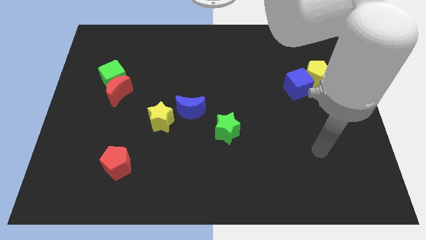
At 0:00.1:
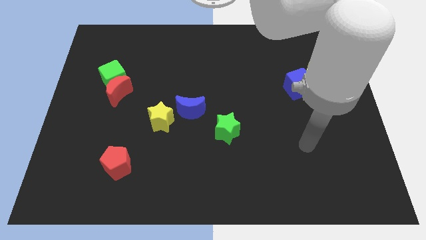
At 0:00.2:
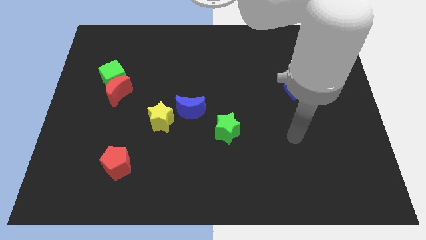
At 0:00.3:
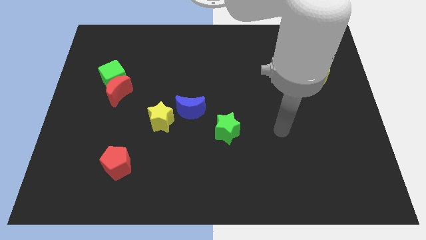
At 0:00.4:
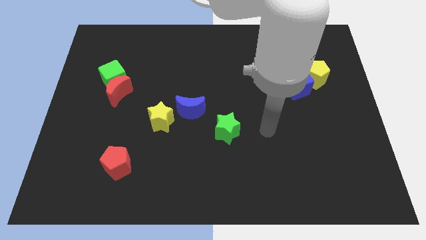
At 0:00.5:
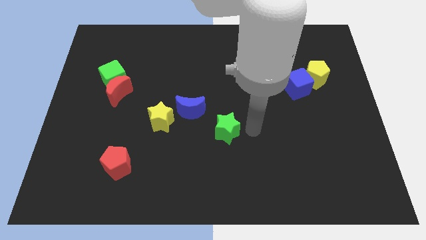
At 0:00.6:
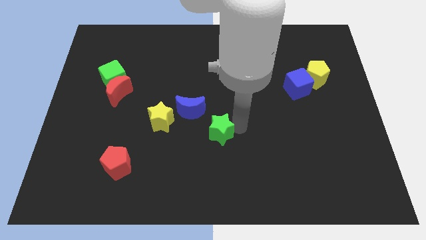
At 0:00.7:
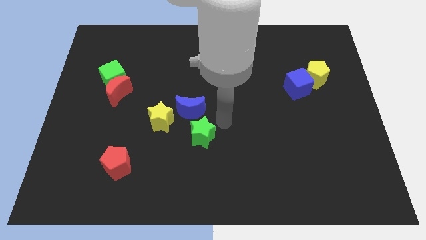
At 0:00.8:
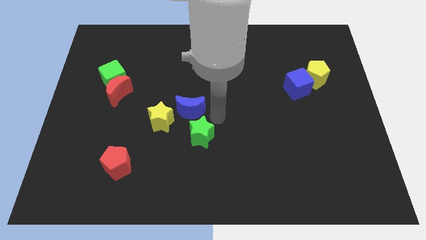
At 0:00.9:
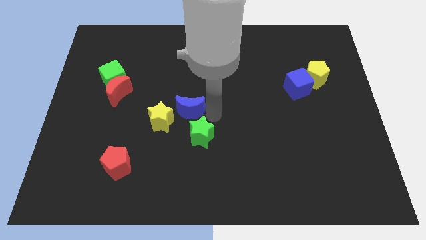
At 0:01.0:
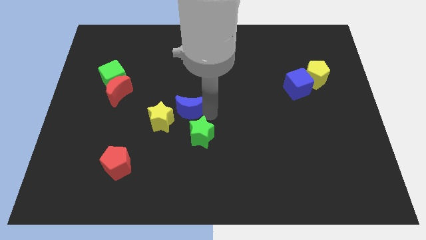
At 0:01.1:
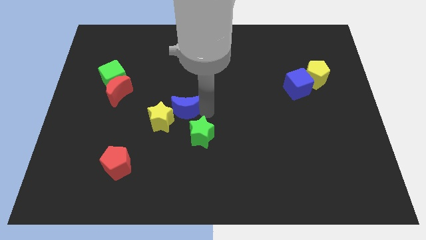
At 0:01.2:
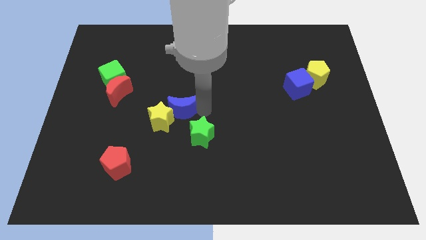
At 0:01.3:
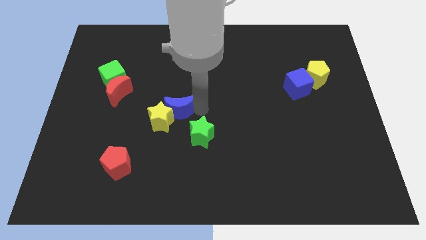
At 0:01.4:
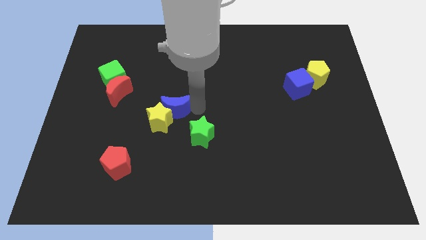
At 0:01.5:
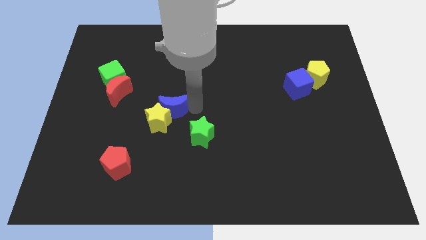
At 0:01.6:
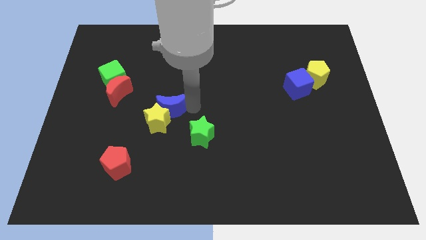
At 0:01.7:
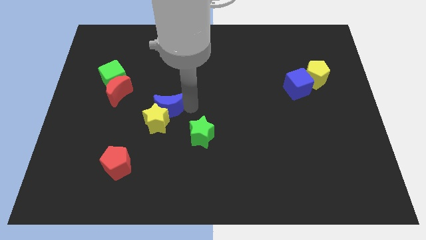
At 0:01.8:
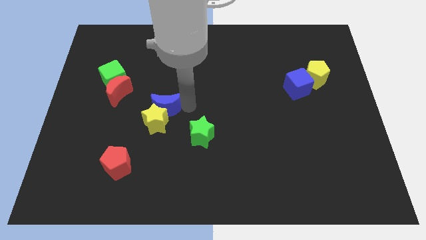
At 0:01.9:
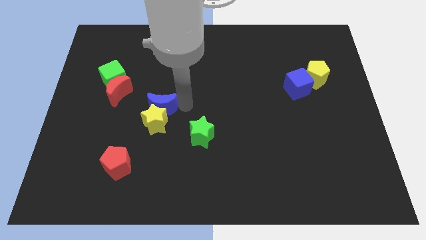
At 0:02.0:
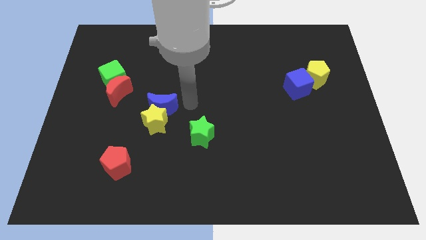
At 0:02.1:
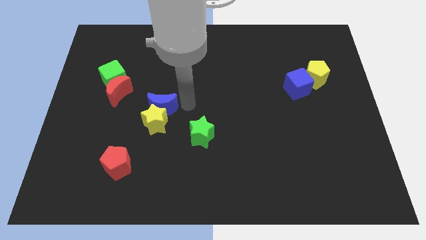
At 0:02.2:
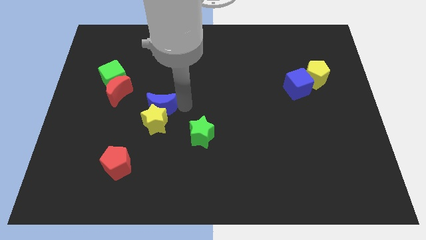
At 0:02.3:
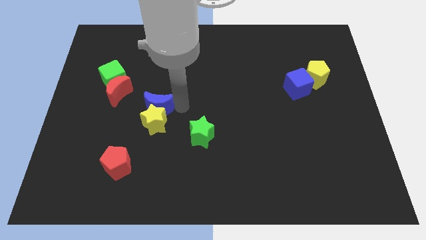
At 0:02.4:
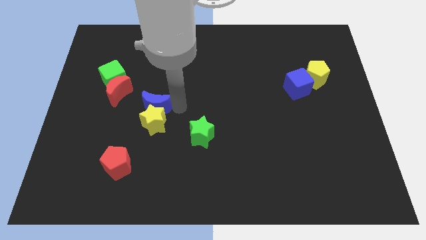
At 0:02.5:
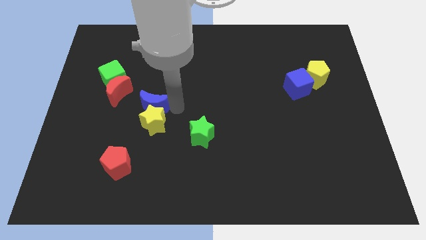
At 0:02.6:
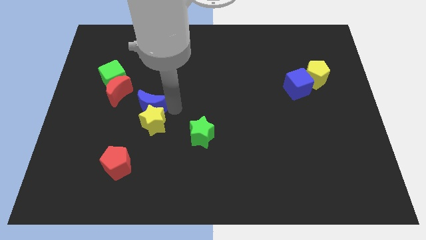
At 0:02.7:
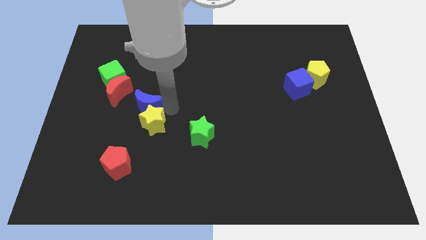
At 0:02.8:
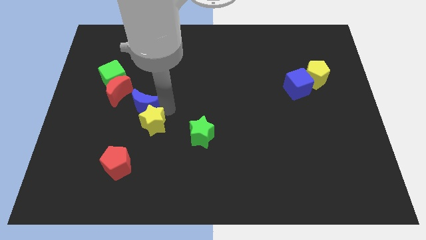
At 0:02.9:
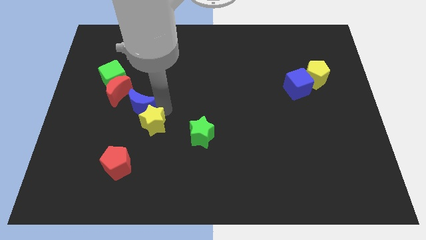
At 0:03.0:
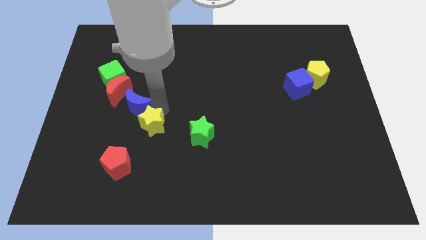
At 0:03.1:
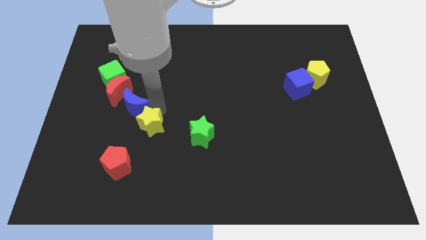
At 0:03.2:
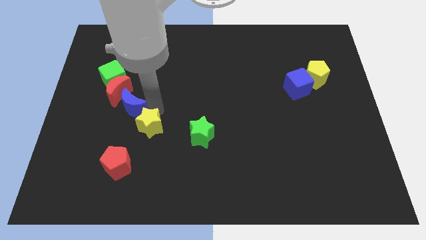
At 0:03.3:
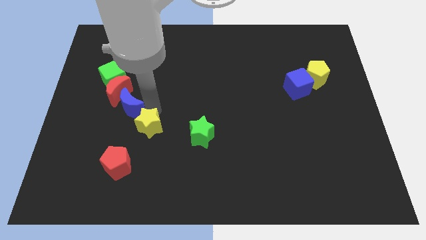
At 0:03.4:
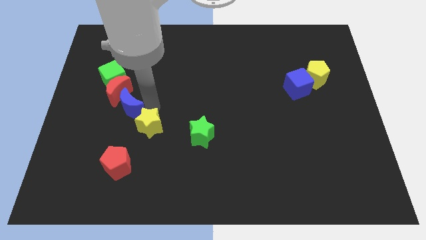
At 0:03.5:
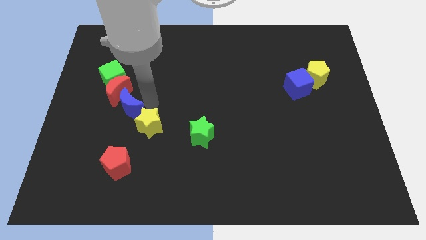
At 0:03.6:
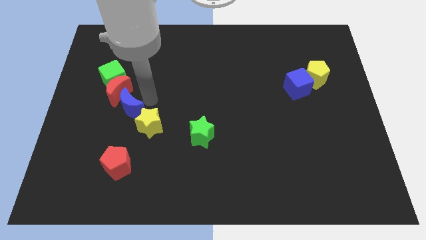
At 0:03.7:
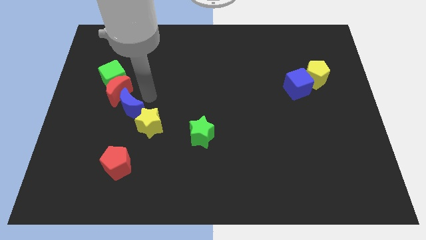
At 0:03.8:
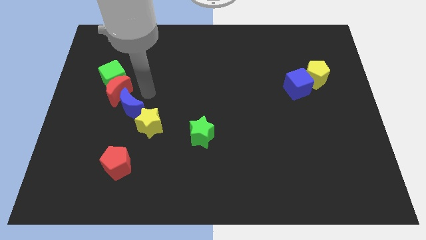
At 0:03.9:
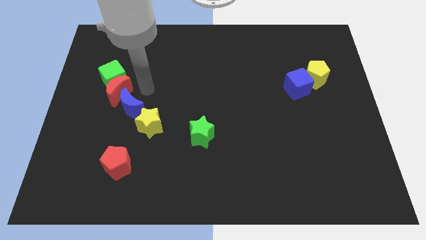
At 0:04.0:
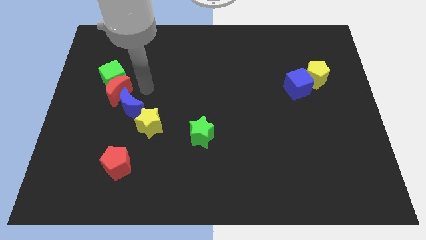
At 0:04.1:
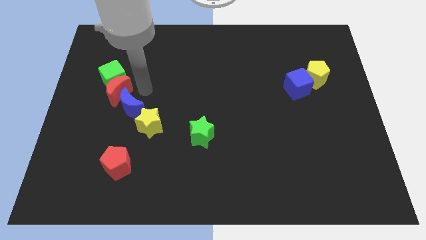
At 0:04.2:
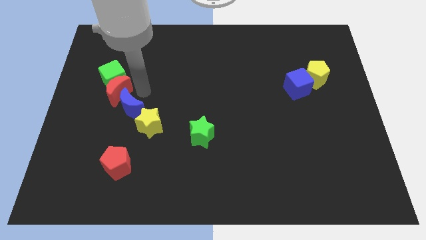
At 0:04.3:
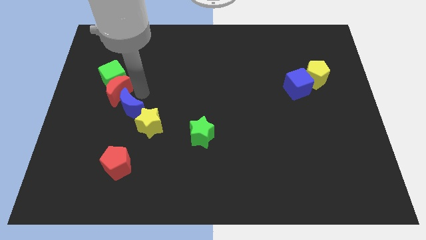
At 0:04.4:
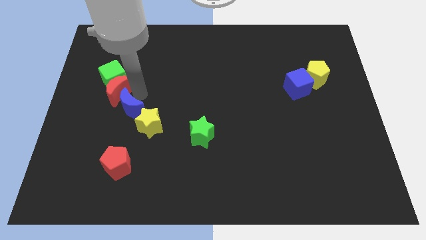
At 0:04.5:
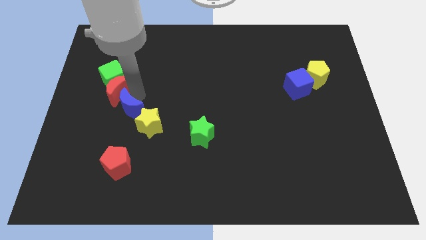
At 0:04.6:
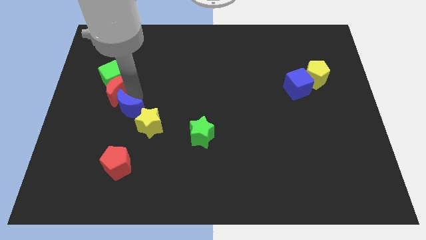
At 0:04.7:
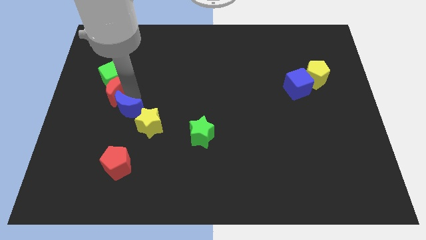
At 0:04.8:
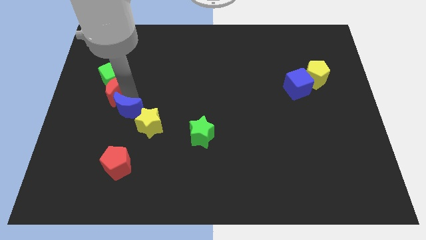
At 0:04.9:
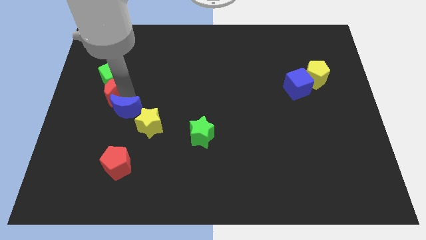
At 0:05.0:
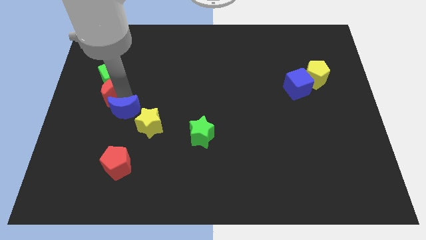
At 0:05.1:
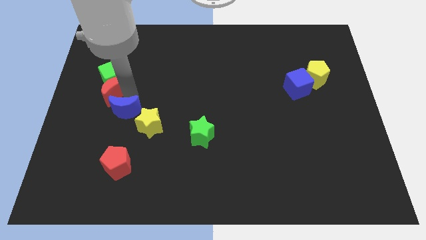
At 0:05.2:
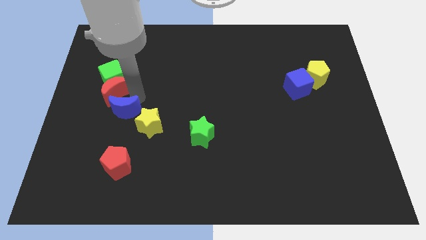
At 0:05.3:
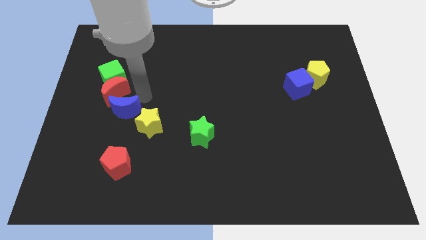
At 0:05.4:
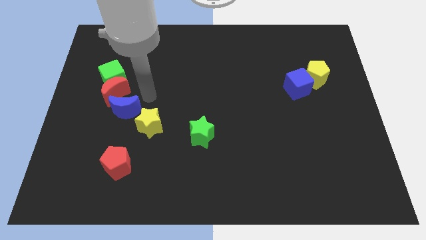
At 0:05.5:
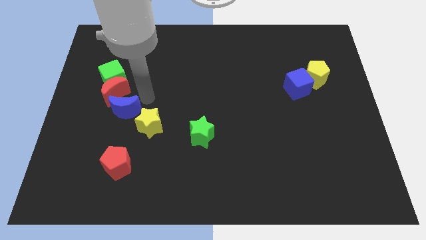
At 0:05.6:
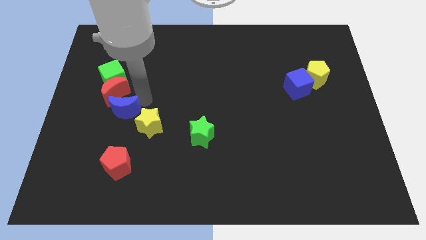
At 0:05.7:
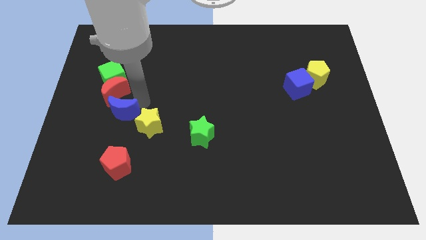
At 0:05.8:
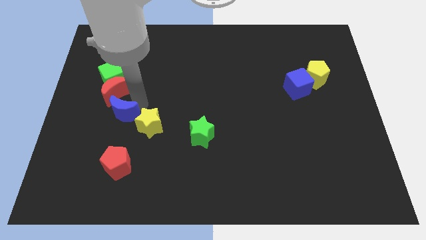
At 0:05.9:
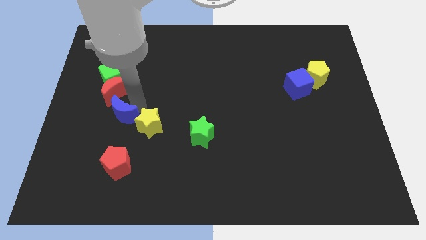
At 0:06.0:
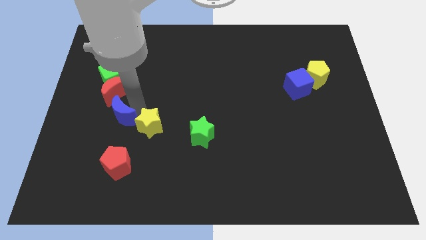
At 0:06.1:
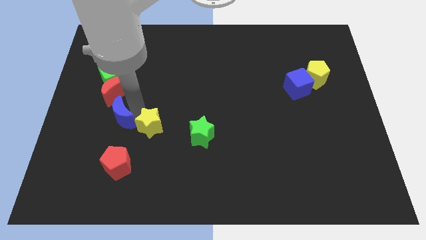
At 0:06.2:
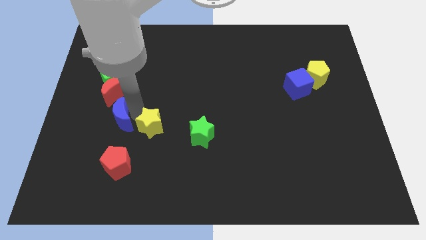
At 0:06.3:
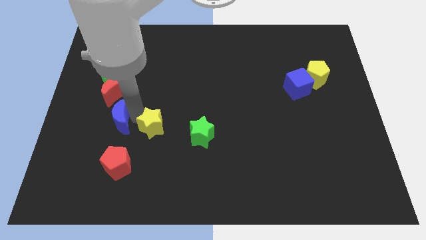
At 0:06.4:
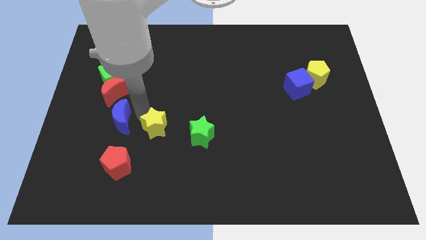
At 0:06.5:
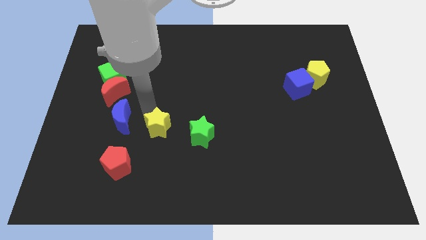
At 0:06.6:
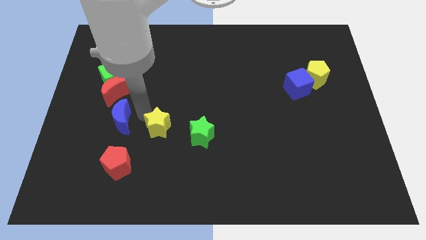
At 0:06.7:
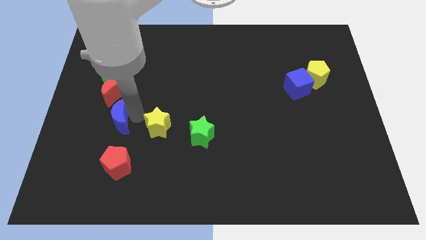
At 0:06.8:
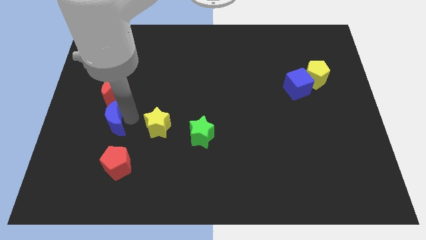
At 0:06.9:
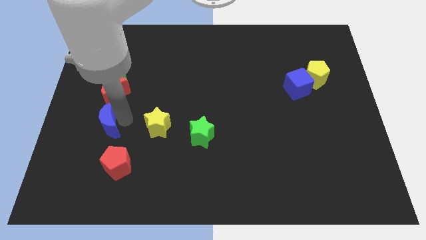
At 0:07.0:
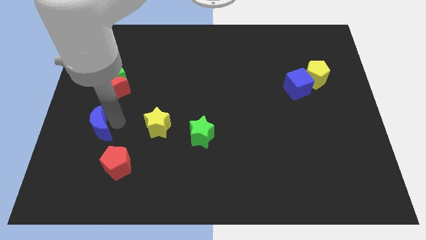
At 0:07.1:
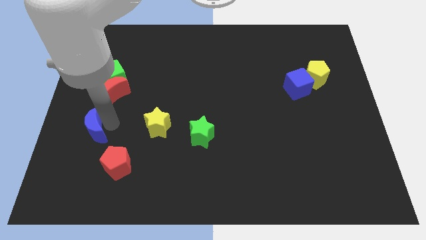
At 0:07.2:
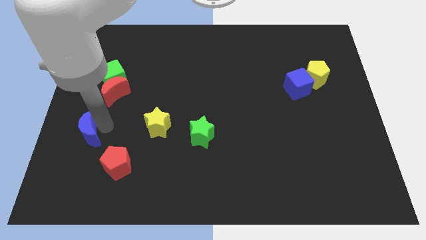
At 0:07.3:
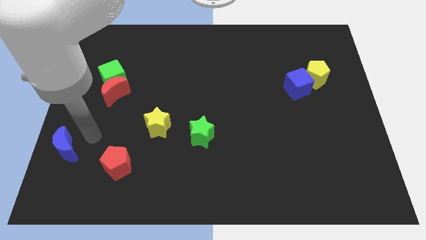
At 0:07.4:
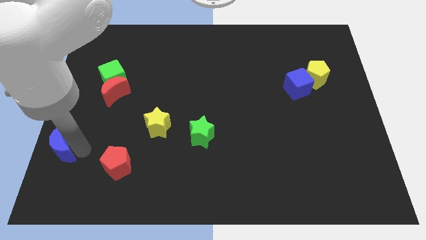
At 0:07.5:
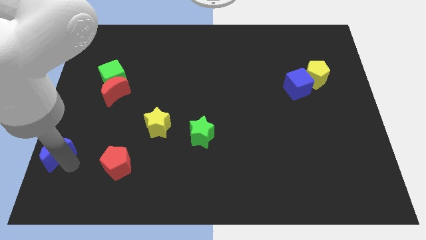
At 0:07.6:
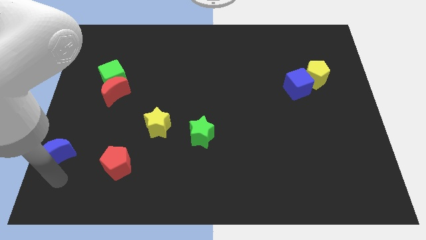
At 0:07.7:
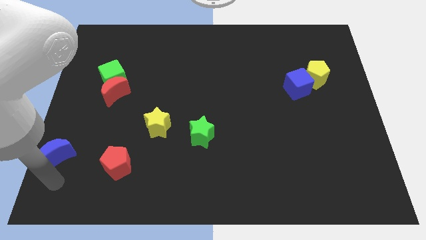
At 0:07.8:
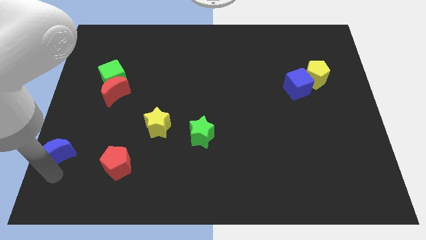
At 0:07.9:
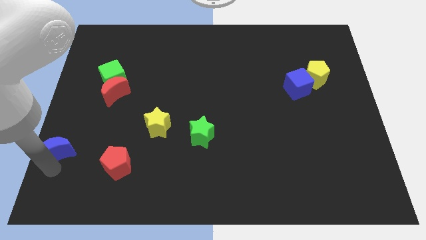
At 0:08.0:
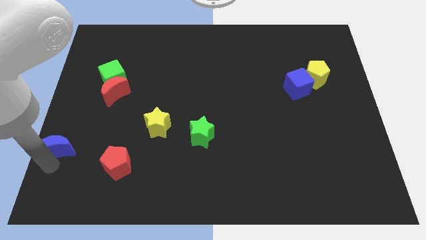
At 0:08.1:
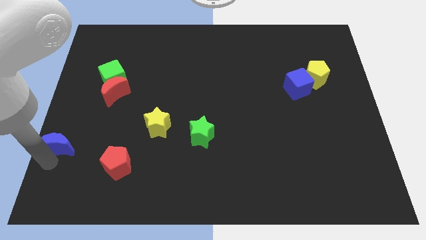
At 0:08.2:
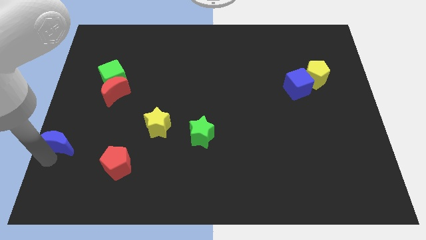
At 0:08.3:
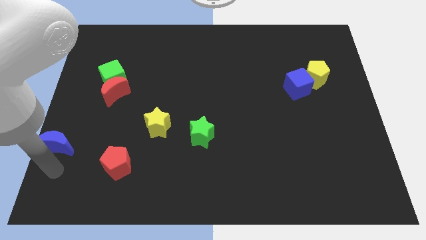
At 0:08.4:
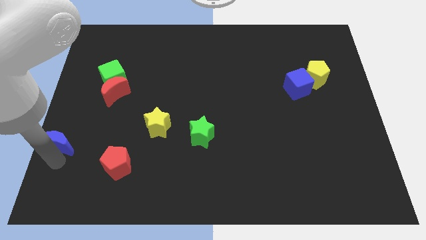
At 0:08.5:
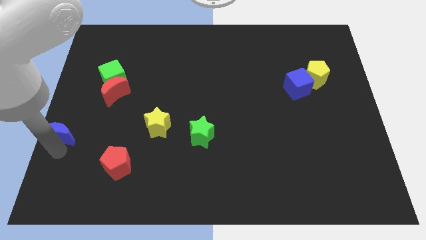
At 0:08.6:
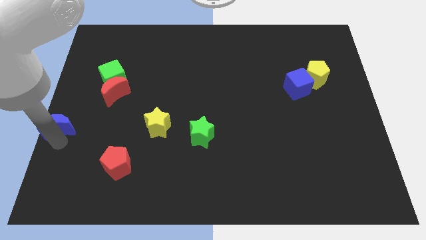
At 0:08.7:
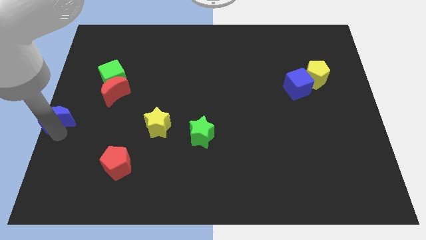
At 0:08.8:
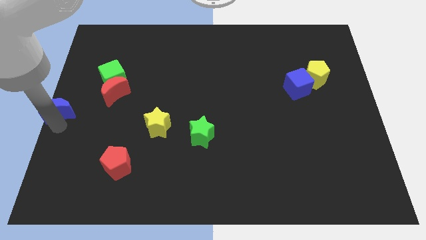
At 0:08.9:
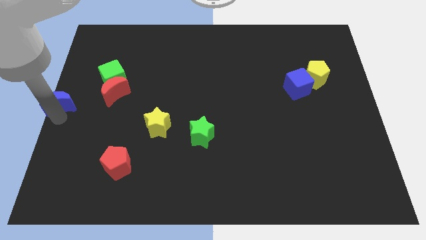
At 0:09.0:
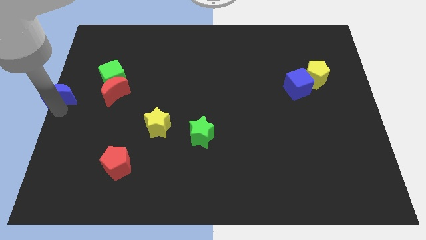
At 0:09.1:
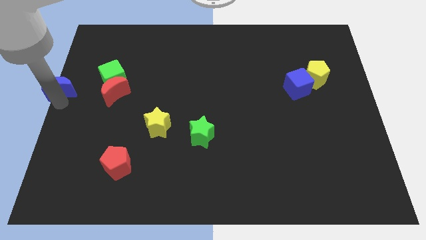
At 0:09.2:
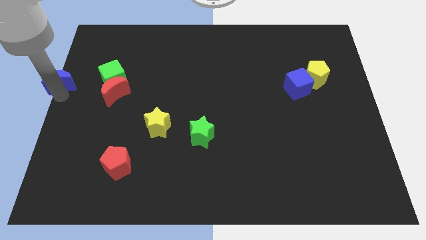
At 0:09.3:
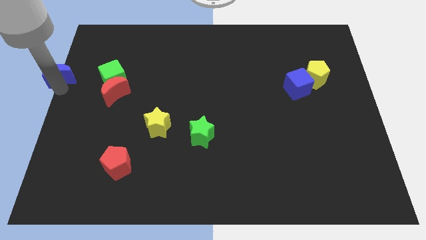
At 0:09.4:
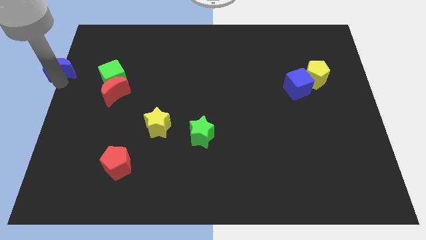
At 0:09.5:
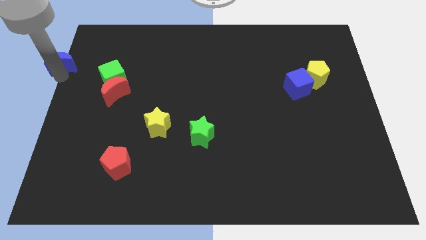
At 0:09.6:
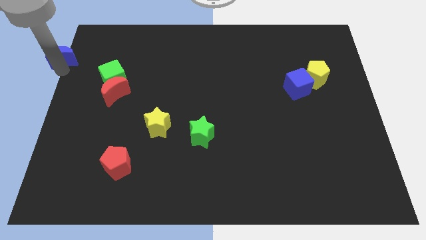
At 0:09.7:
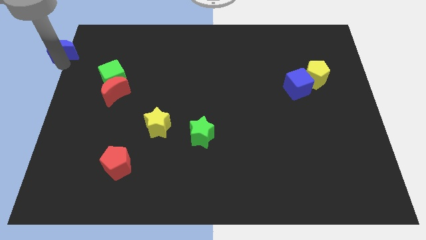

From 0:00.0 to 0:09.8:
move the blue moon to the top left corner
